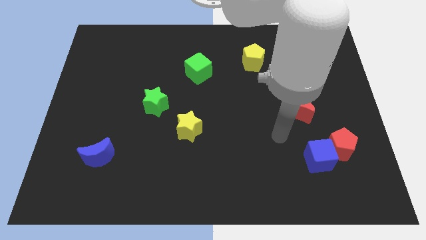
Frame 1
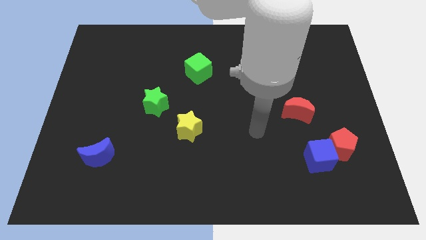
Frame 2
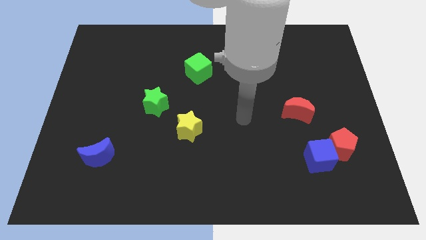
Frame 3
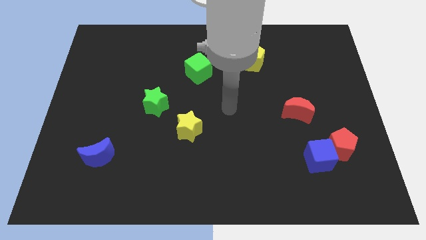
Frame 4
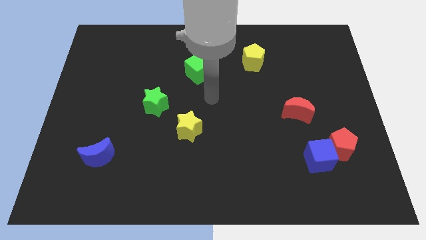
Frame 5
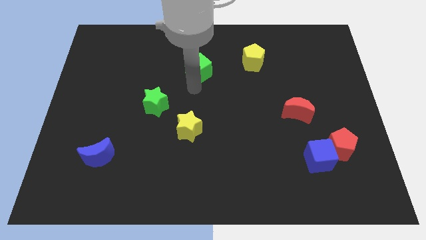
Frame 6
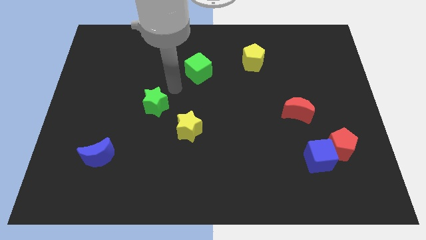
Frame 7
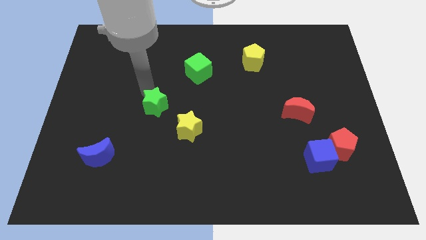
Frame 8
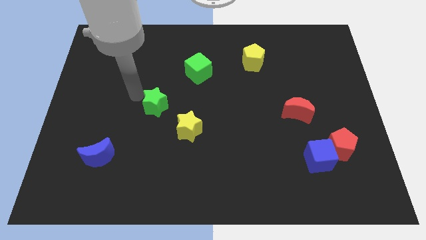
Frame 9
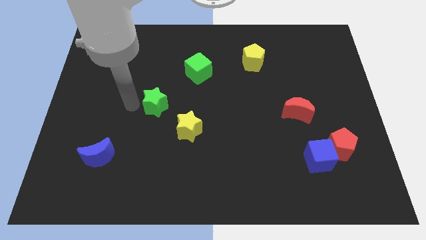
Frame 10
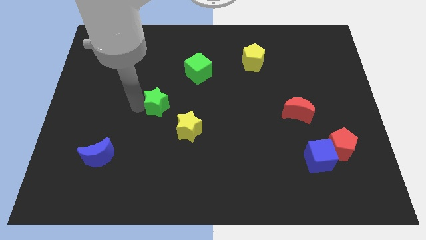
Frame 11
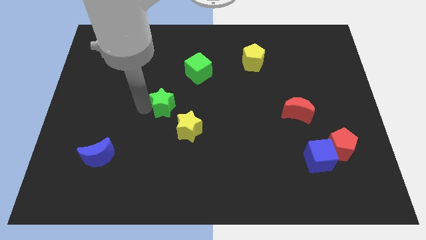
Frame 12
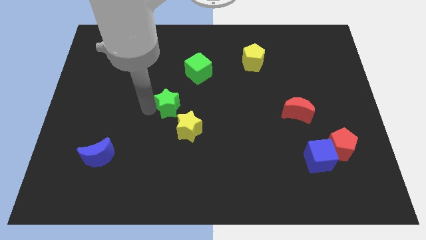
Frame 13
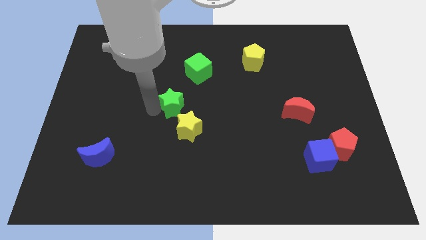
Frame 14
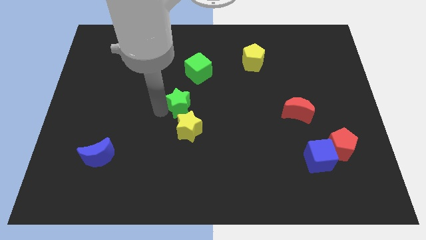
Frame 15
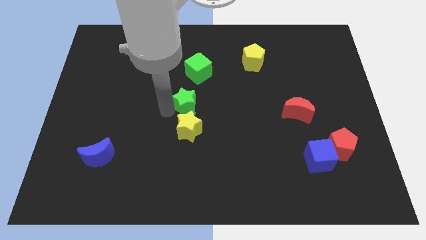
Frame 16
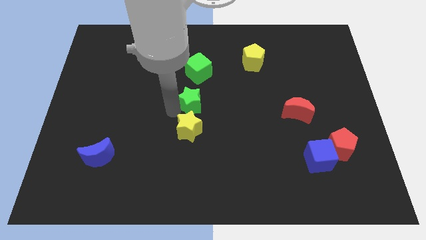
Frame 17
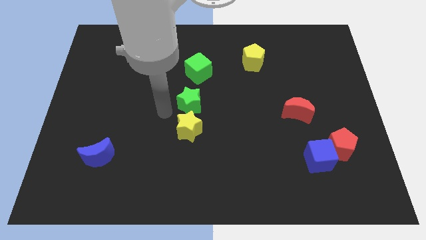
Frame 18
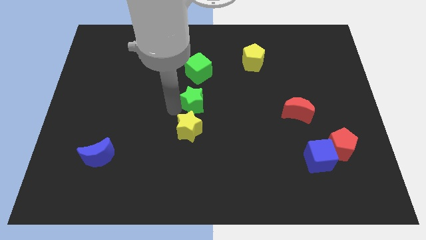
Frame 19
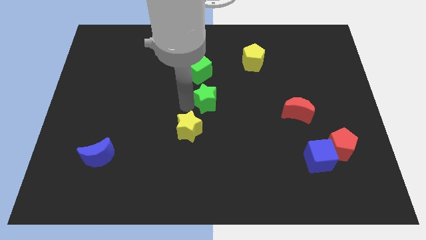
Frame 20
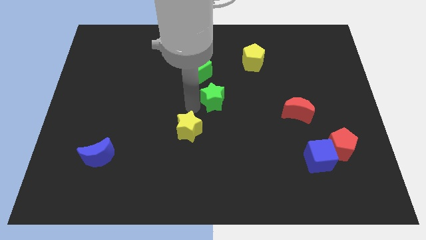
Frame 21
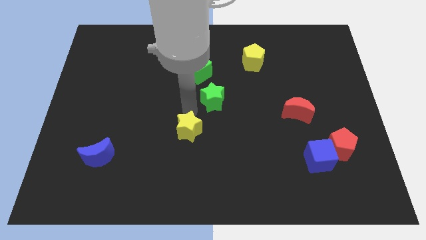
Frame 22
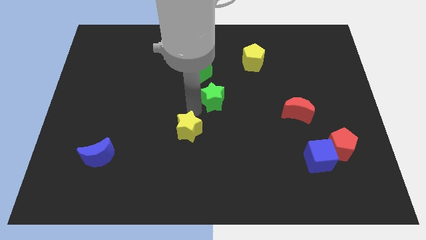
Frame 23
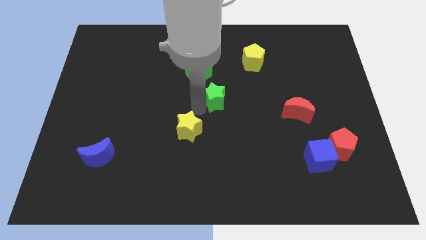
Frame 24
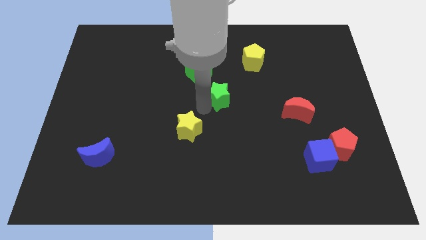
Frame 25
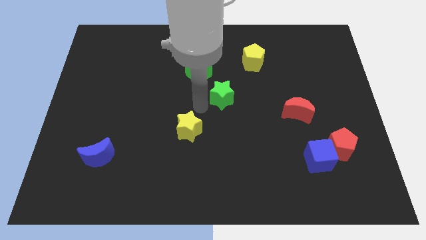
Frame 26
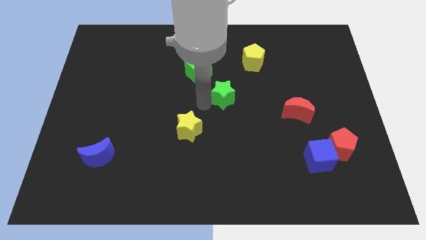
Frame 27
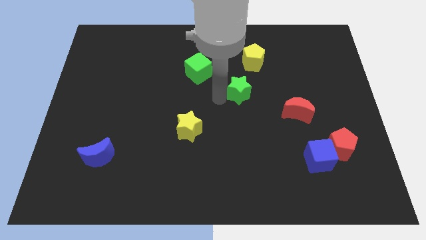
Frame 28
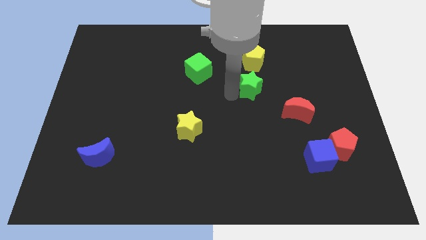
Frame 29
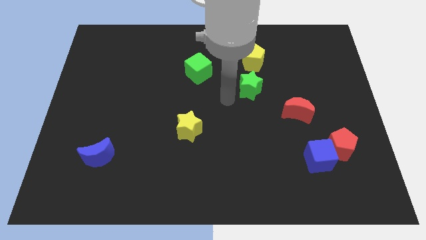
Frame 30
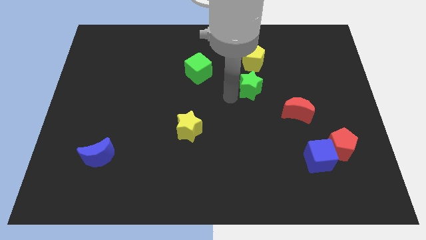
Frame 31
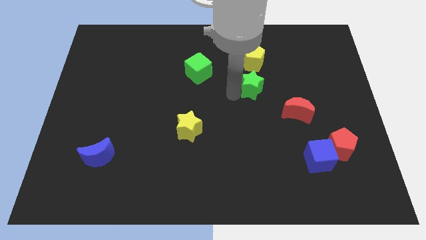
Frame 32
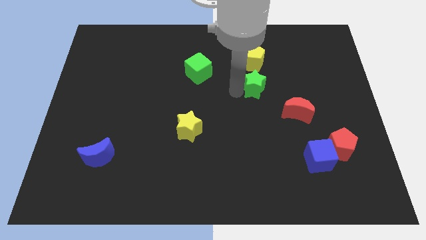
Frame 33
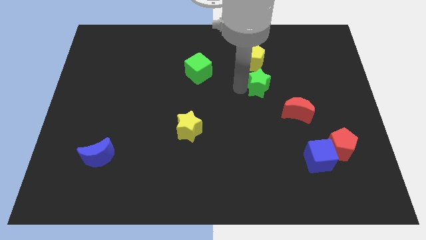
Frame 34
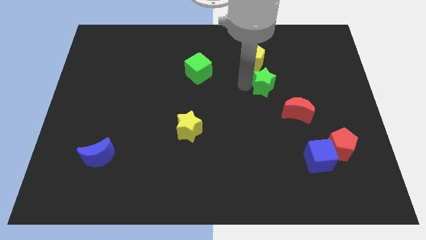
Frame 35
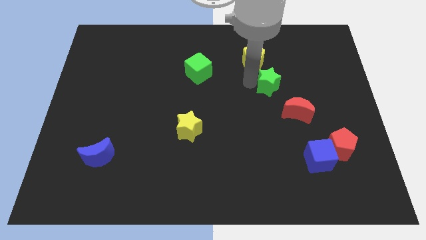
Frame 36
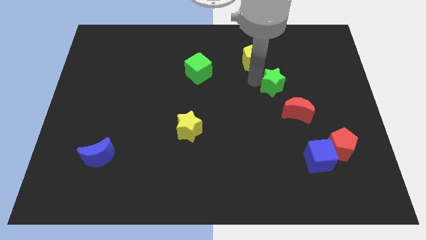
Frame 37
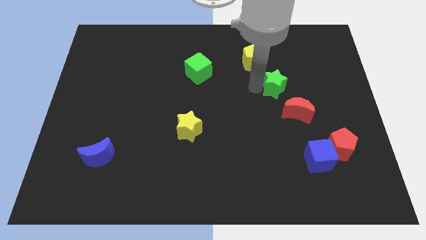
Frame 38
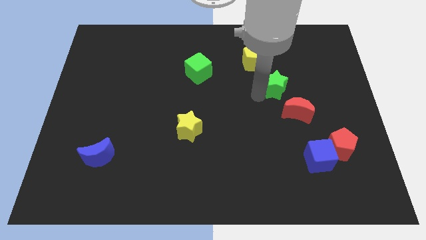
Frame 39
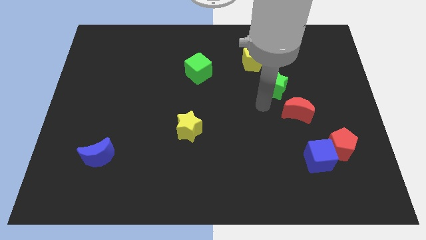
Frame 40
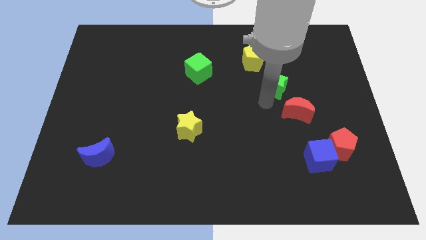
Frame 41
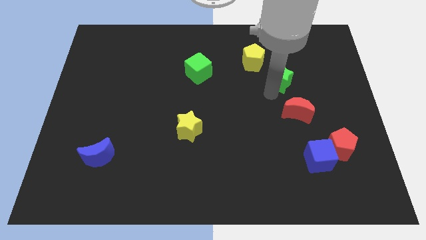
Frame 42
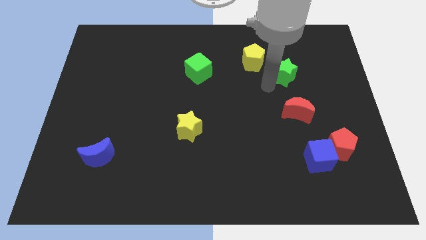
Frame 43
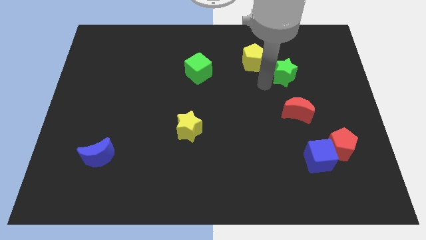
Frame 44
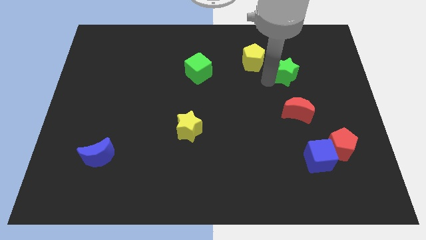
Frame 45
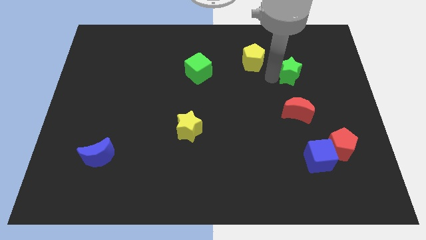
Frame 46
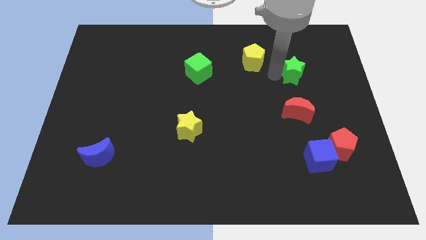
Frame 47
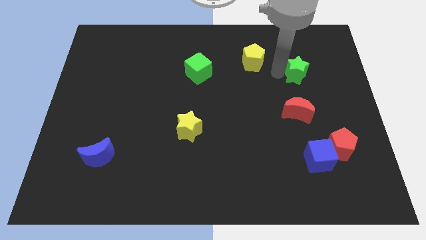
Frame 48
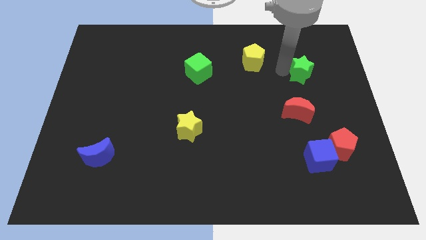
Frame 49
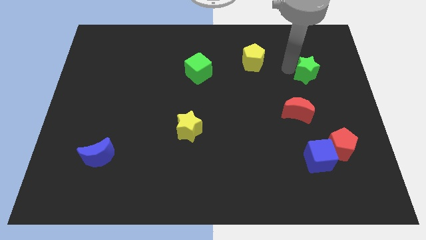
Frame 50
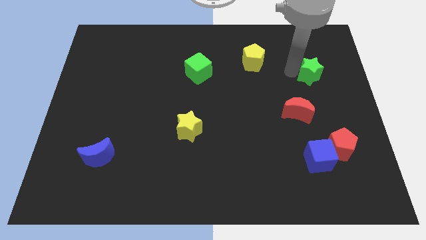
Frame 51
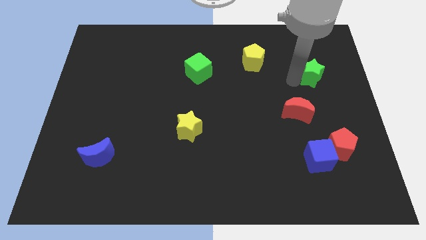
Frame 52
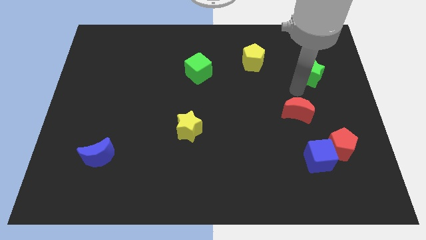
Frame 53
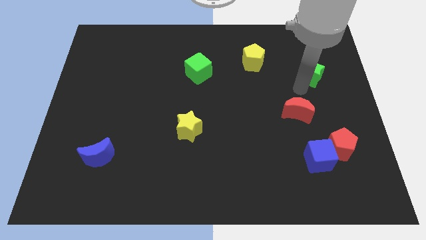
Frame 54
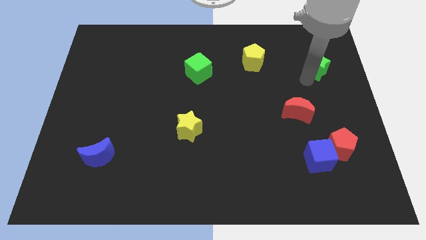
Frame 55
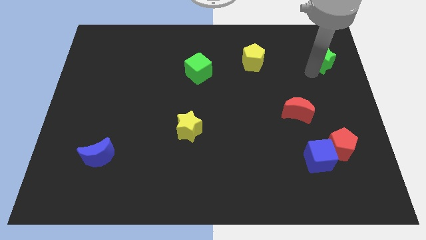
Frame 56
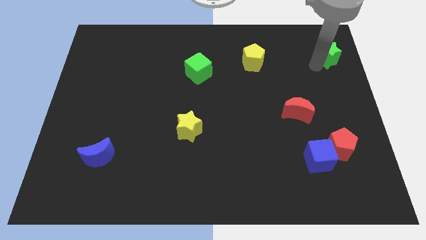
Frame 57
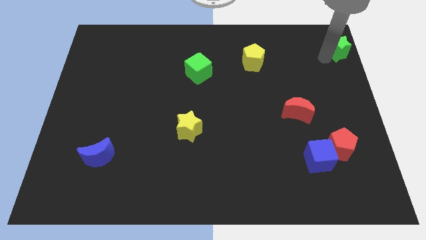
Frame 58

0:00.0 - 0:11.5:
put the green star to the upper right corner

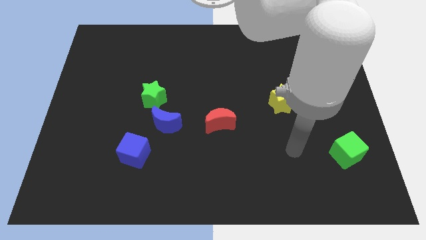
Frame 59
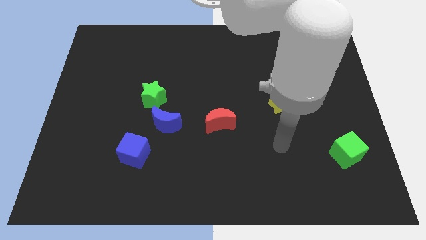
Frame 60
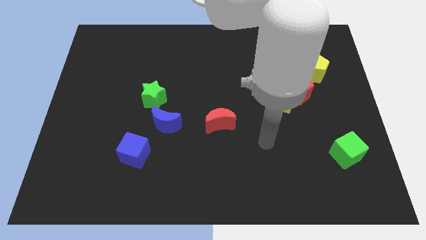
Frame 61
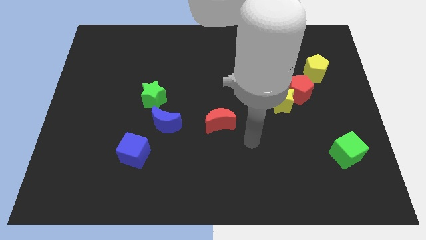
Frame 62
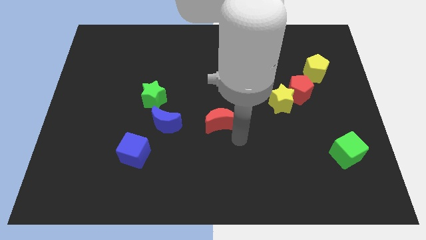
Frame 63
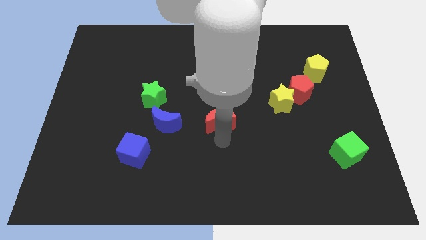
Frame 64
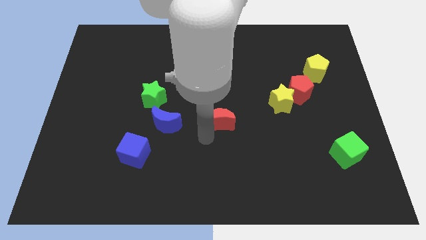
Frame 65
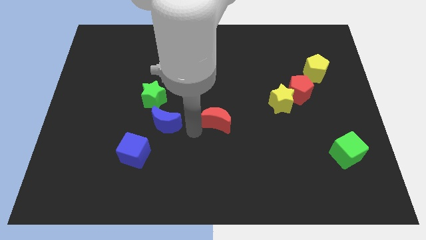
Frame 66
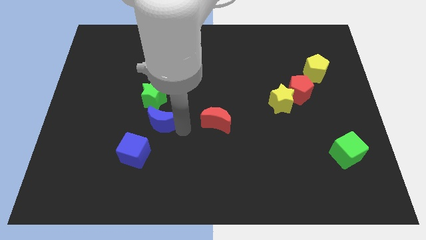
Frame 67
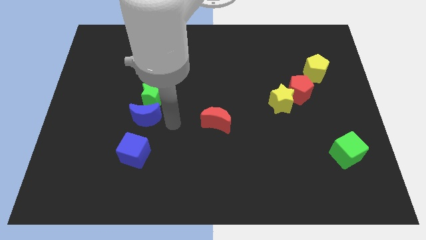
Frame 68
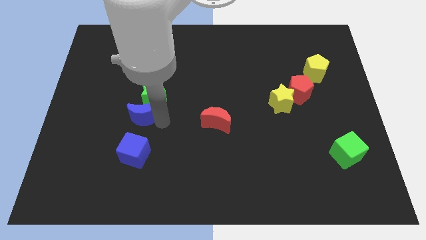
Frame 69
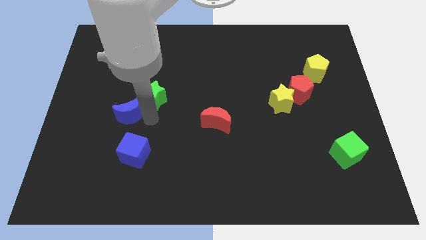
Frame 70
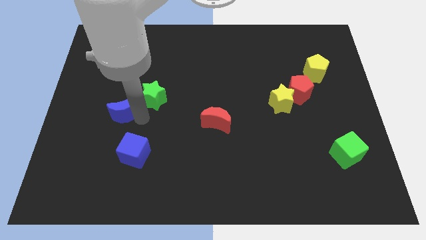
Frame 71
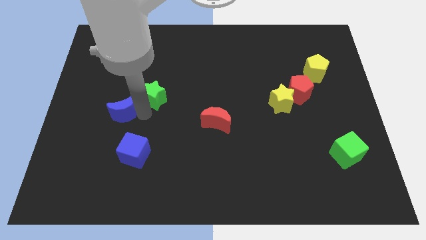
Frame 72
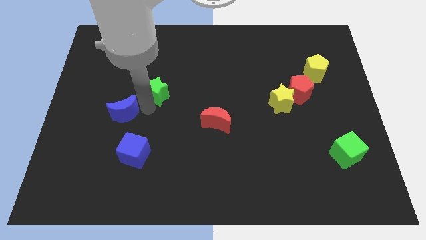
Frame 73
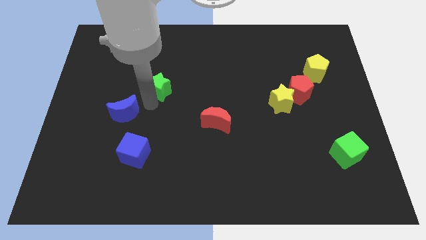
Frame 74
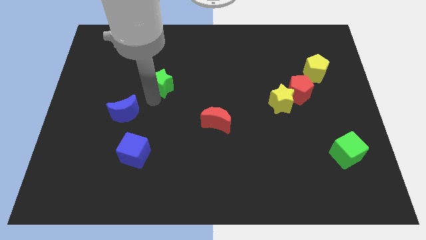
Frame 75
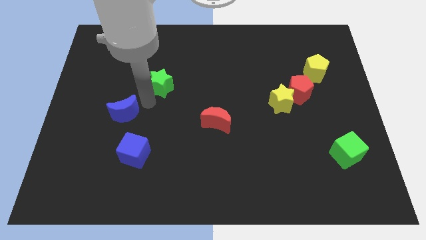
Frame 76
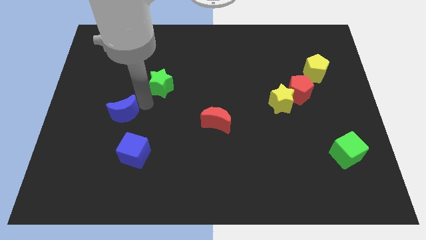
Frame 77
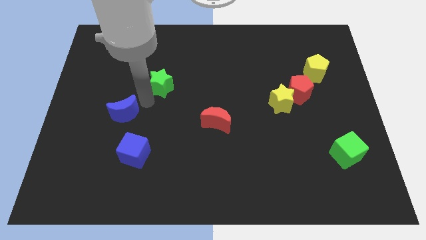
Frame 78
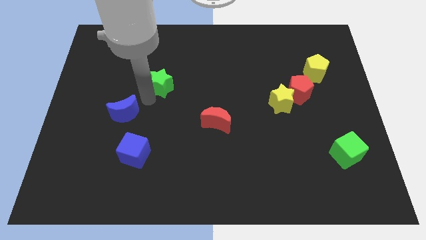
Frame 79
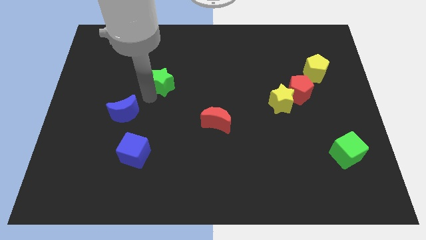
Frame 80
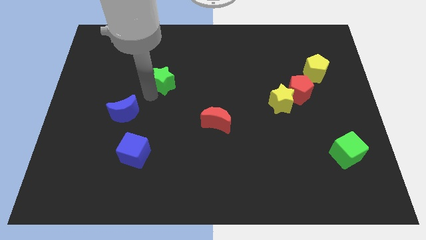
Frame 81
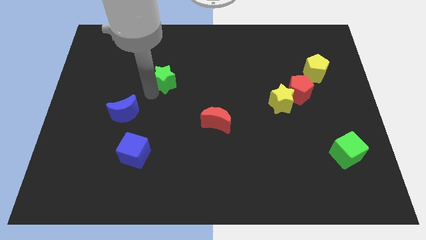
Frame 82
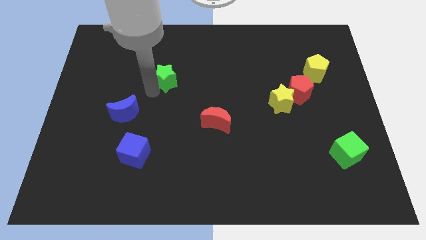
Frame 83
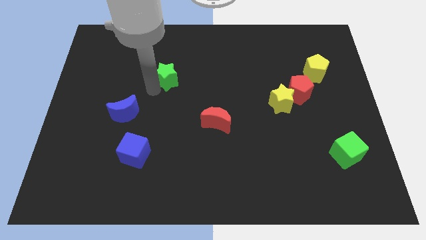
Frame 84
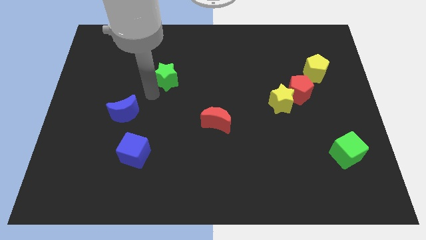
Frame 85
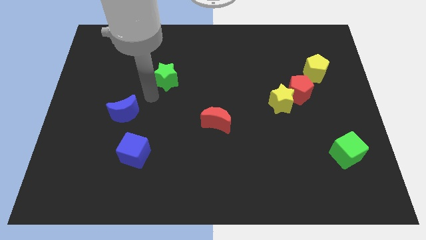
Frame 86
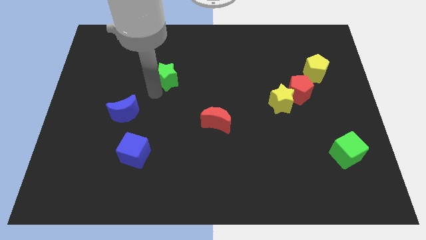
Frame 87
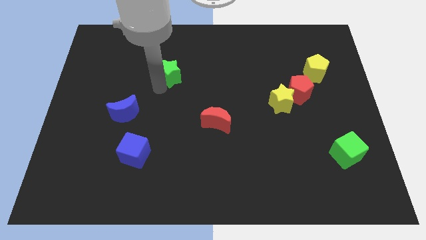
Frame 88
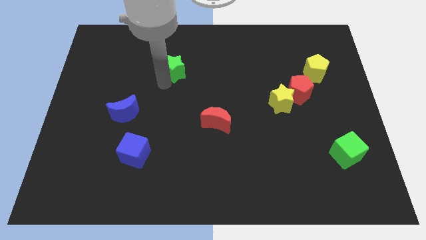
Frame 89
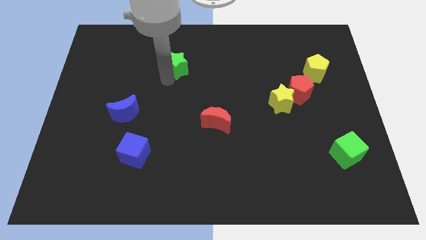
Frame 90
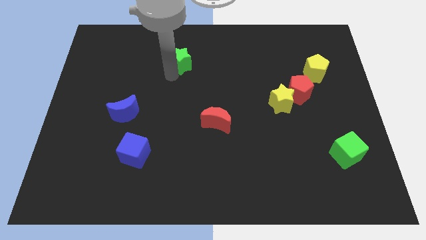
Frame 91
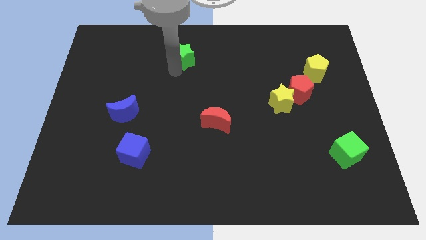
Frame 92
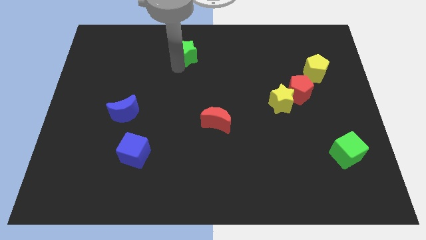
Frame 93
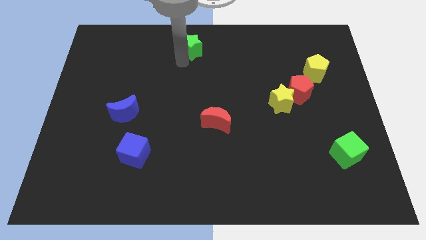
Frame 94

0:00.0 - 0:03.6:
push the green star to the top side
